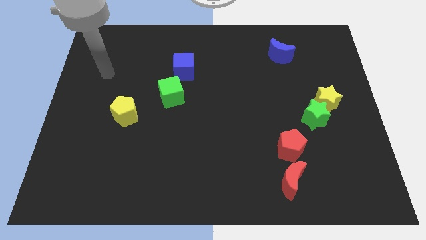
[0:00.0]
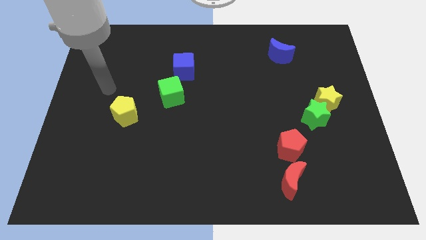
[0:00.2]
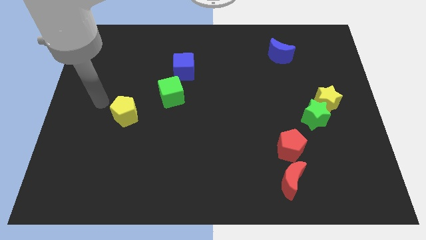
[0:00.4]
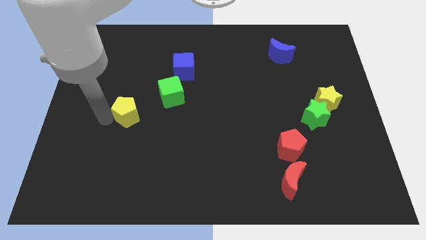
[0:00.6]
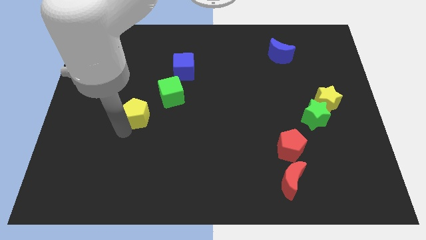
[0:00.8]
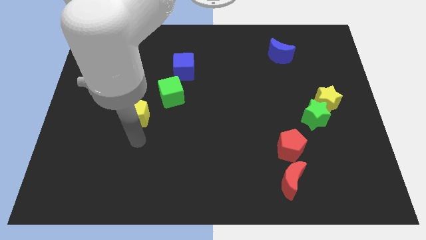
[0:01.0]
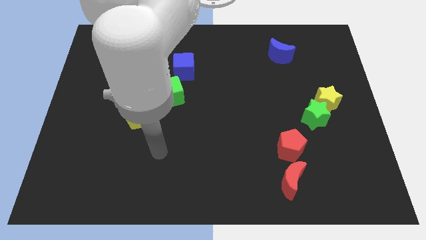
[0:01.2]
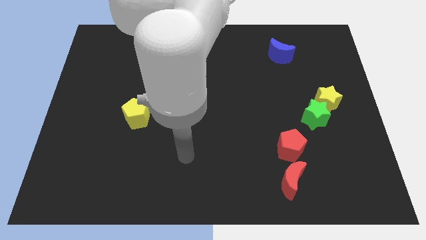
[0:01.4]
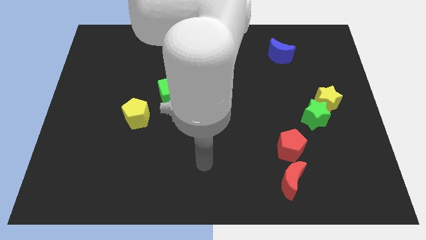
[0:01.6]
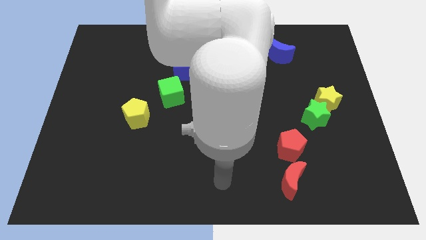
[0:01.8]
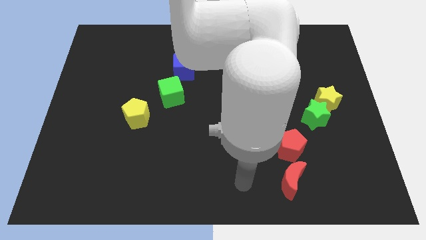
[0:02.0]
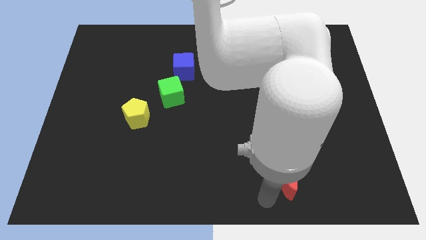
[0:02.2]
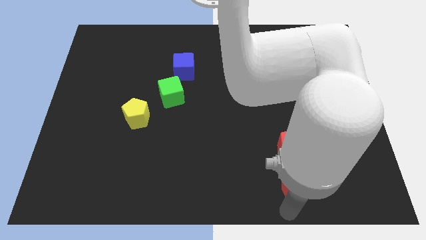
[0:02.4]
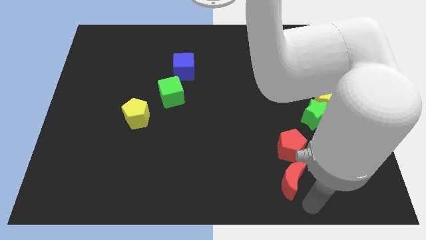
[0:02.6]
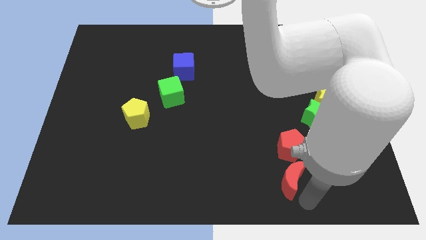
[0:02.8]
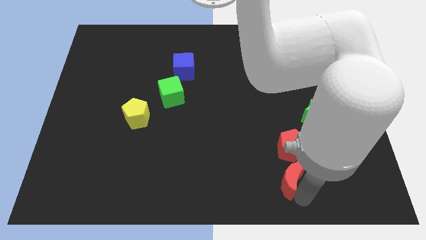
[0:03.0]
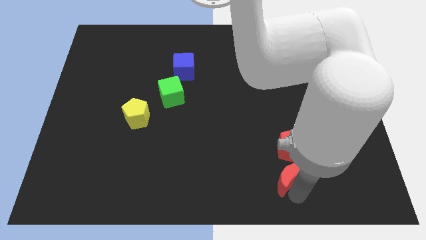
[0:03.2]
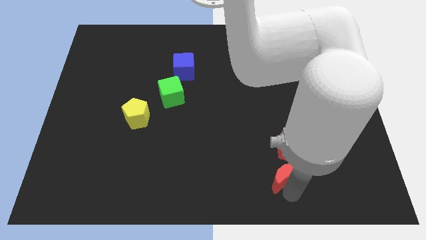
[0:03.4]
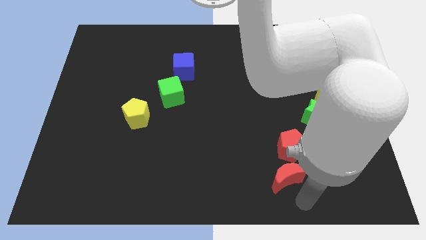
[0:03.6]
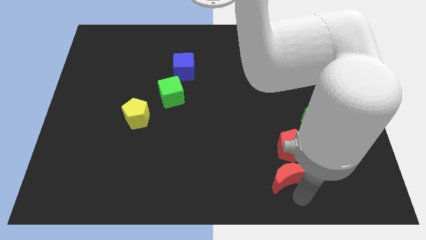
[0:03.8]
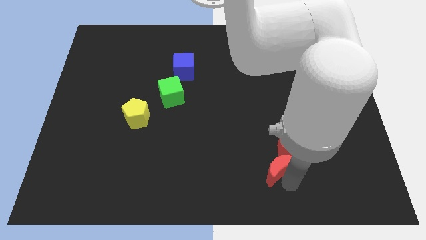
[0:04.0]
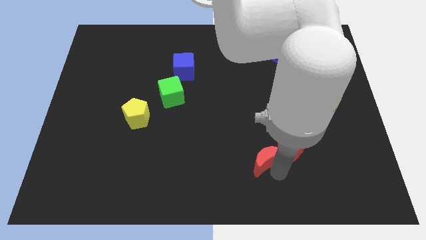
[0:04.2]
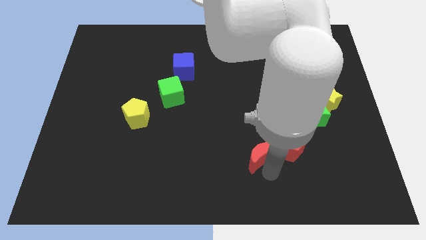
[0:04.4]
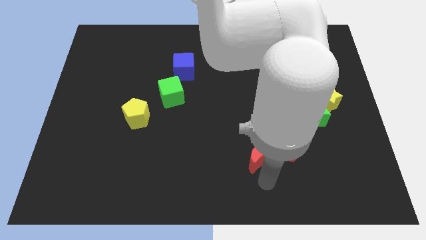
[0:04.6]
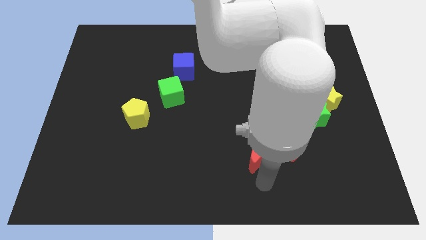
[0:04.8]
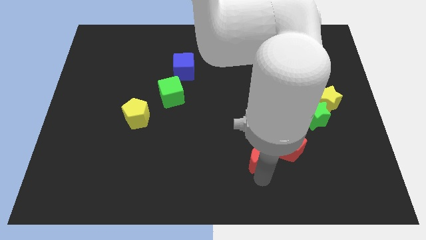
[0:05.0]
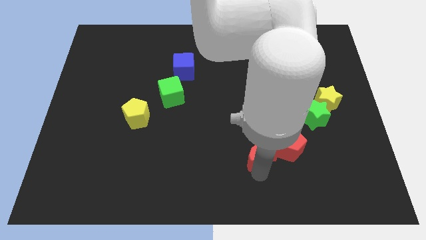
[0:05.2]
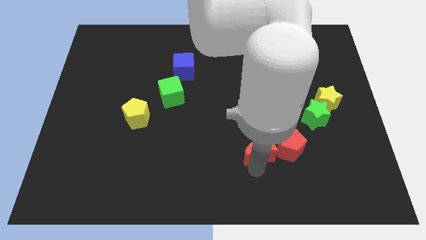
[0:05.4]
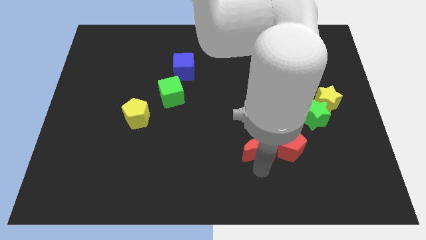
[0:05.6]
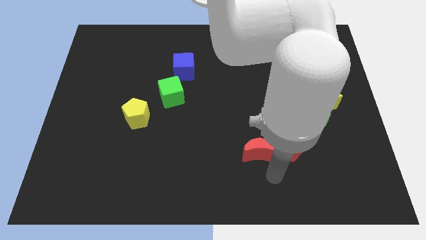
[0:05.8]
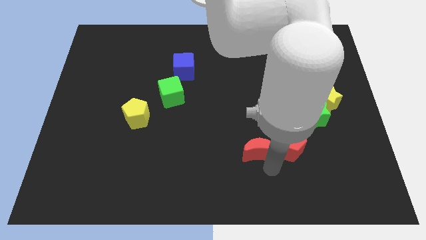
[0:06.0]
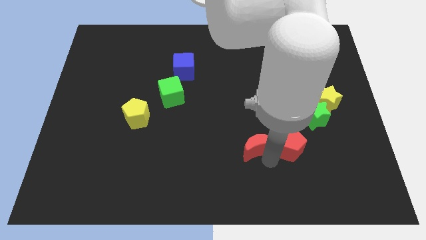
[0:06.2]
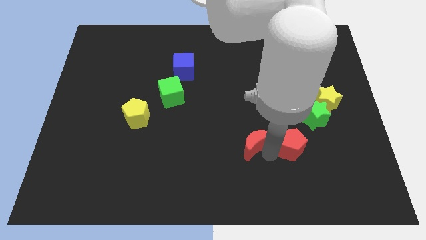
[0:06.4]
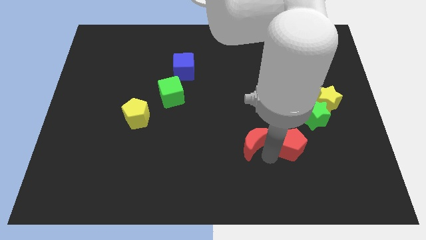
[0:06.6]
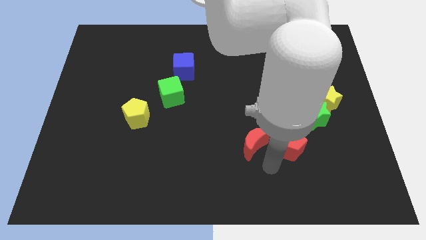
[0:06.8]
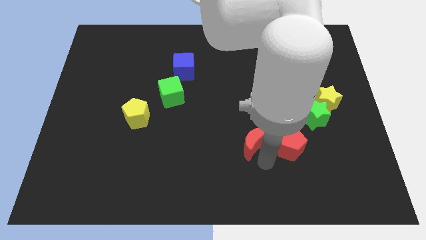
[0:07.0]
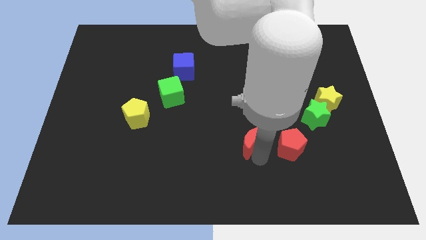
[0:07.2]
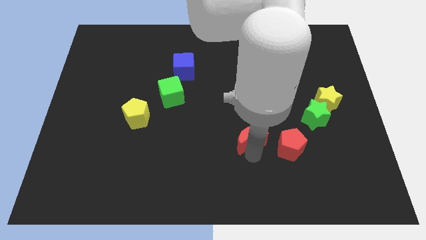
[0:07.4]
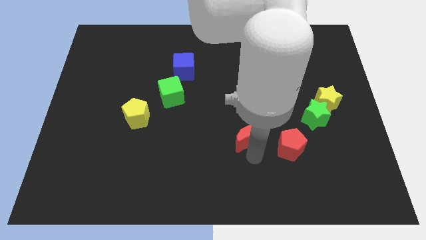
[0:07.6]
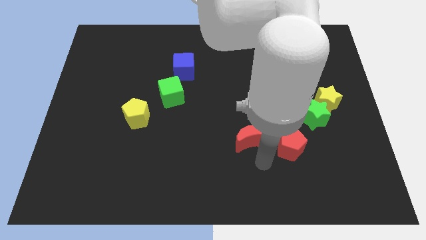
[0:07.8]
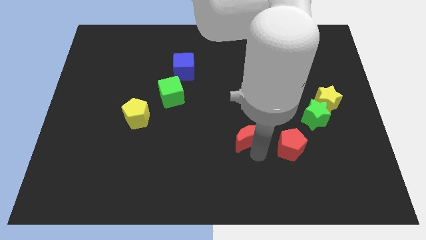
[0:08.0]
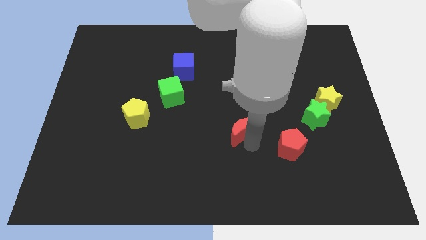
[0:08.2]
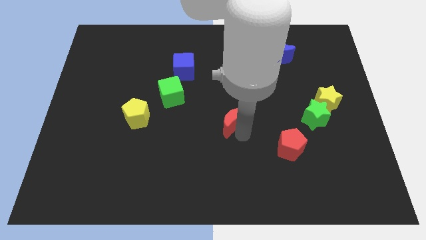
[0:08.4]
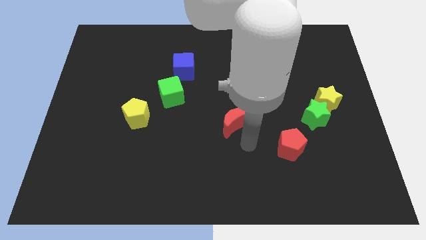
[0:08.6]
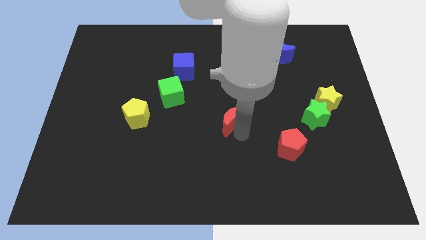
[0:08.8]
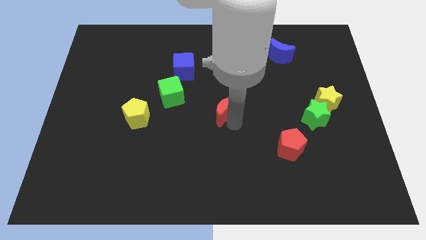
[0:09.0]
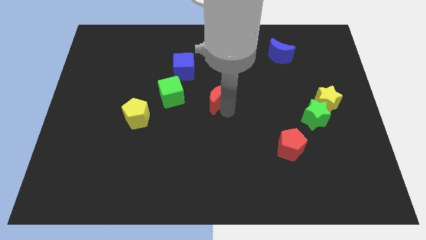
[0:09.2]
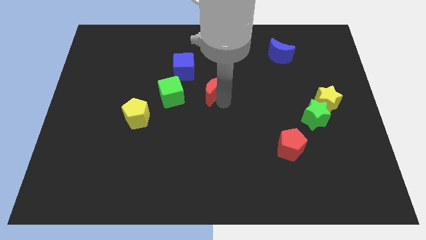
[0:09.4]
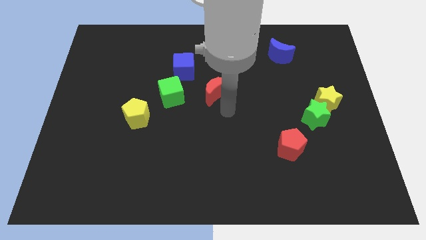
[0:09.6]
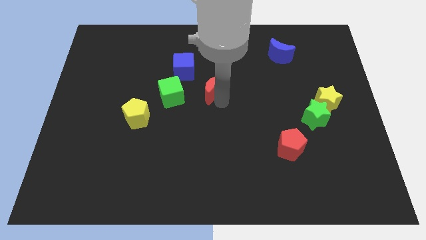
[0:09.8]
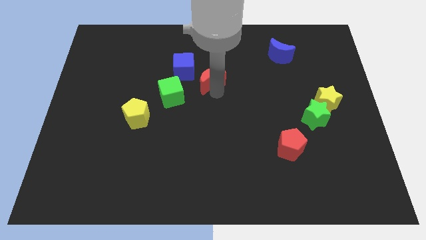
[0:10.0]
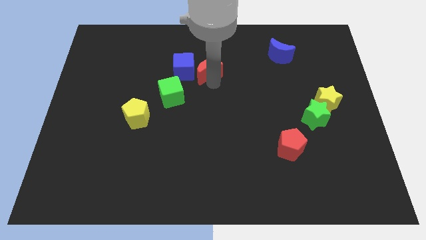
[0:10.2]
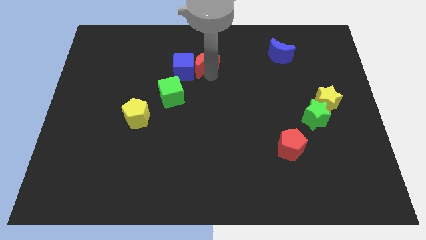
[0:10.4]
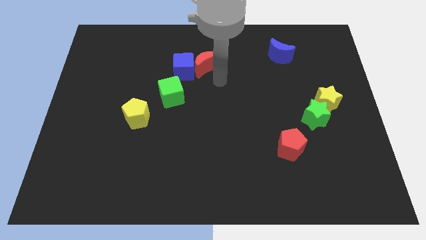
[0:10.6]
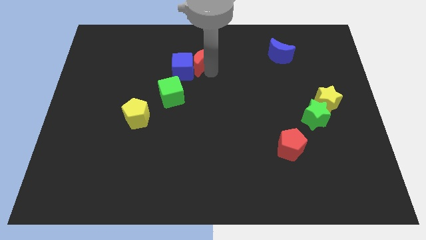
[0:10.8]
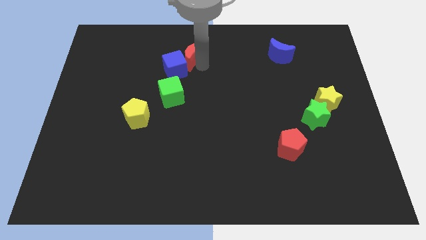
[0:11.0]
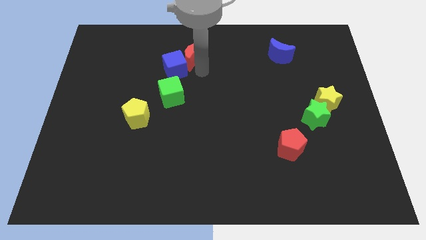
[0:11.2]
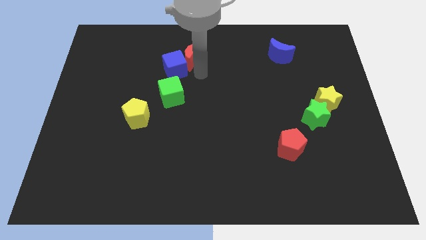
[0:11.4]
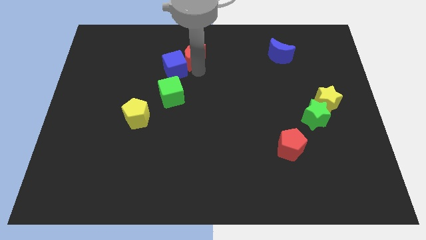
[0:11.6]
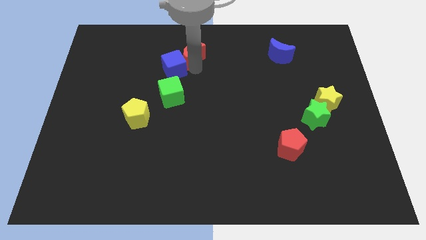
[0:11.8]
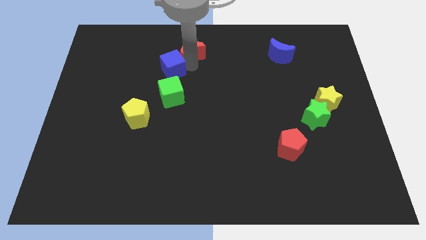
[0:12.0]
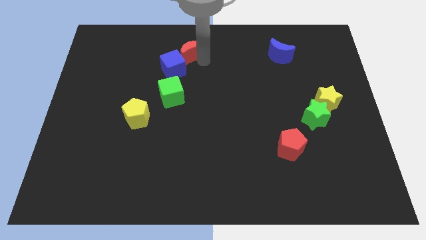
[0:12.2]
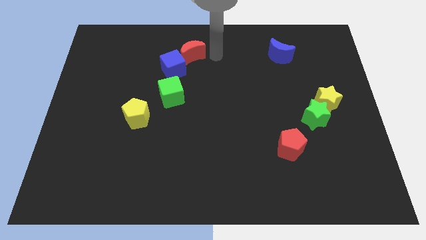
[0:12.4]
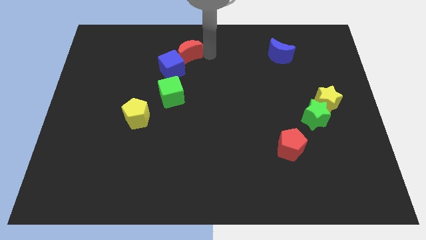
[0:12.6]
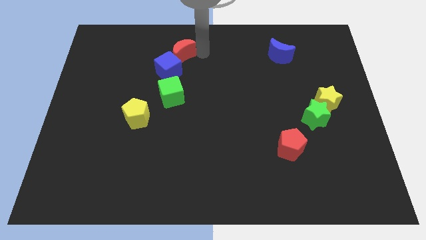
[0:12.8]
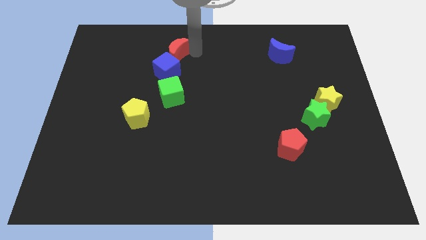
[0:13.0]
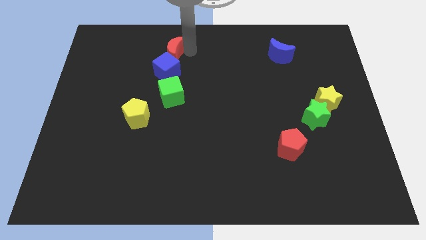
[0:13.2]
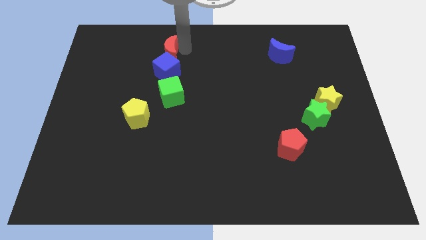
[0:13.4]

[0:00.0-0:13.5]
put the red moon diagonally up and to the left of the blue cube
